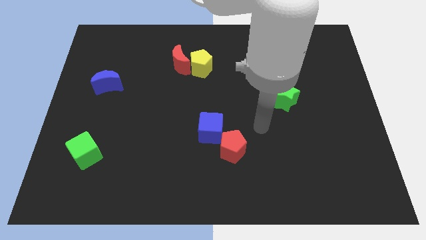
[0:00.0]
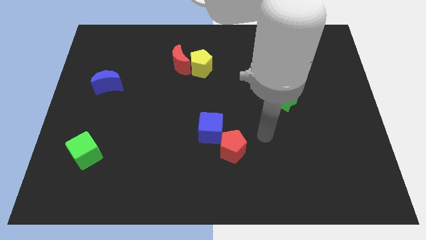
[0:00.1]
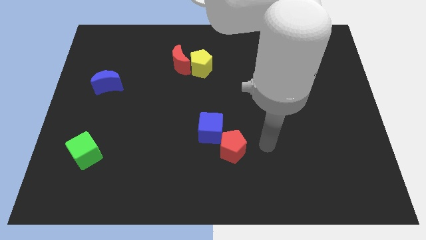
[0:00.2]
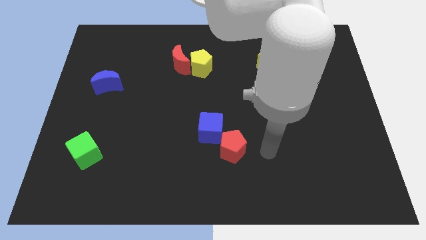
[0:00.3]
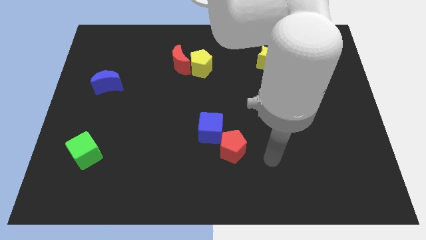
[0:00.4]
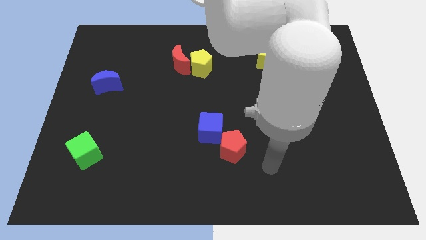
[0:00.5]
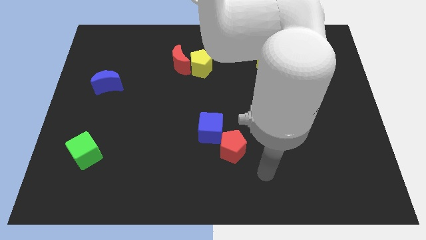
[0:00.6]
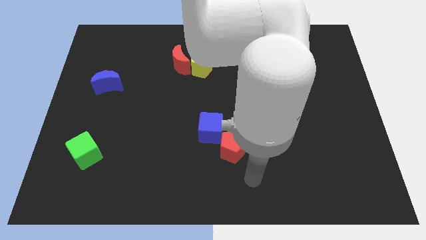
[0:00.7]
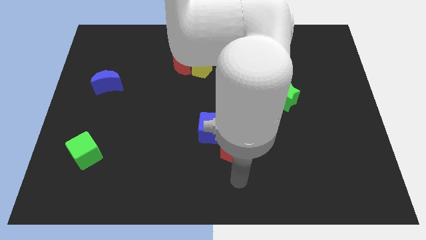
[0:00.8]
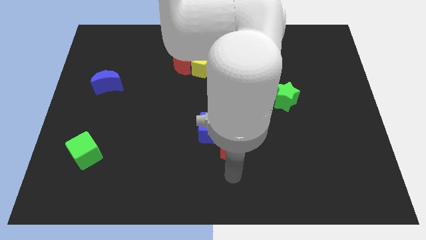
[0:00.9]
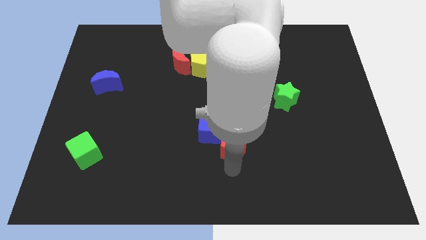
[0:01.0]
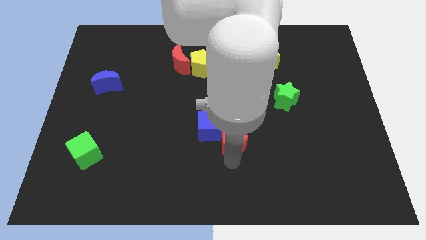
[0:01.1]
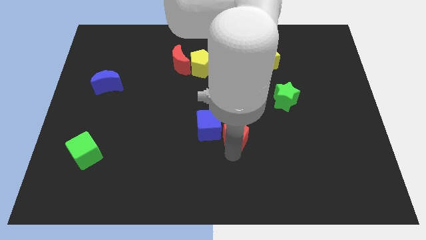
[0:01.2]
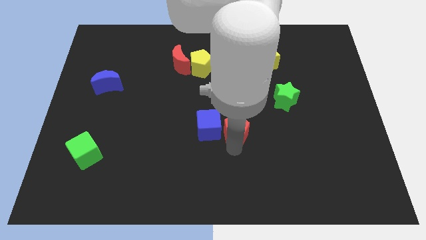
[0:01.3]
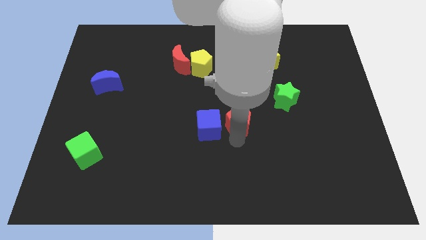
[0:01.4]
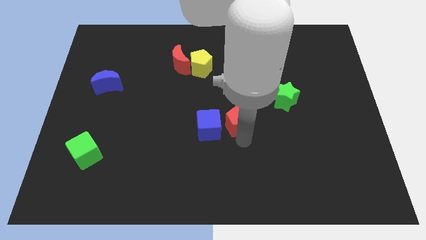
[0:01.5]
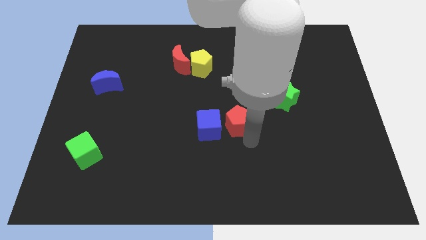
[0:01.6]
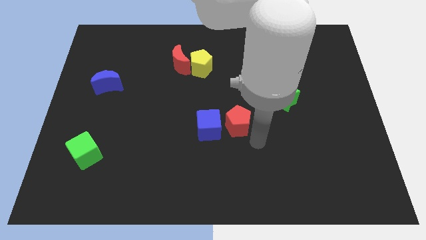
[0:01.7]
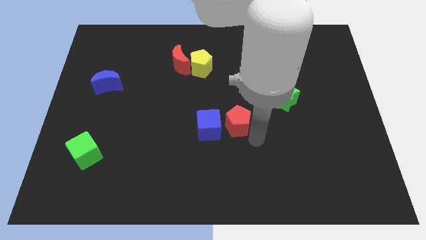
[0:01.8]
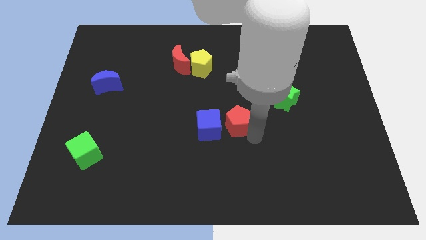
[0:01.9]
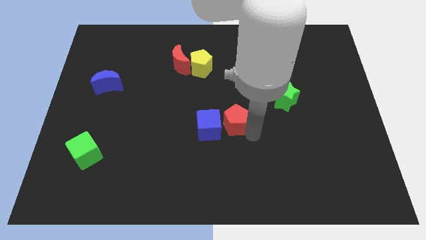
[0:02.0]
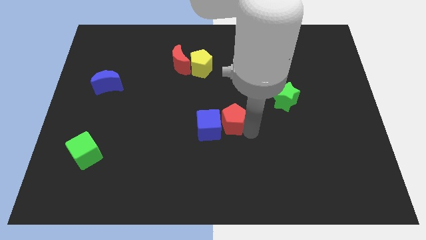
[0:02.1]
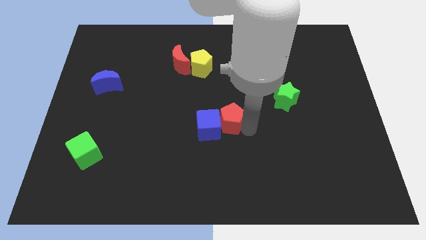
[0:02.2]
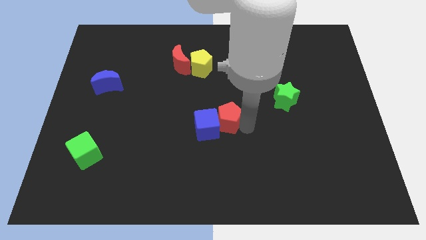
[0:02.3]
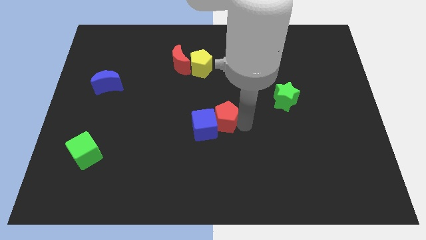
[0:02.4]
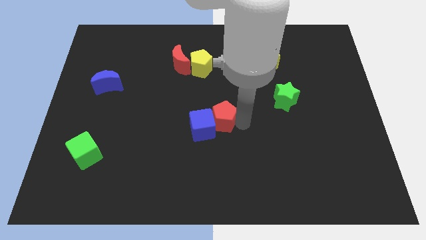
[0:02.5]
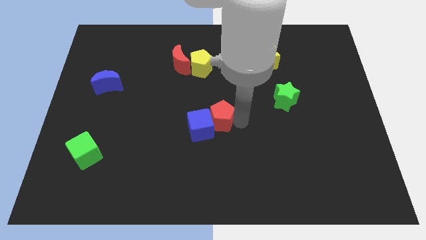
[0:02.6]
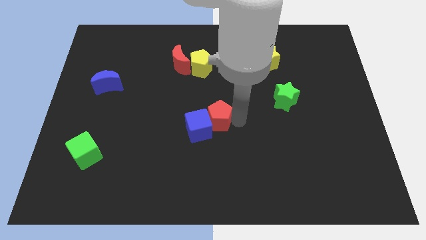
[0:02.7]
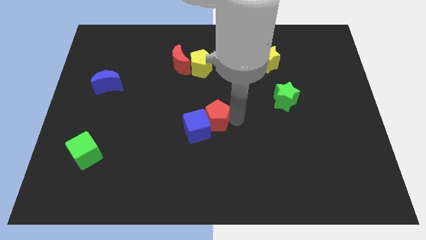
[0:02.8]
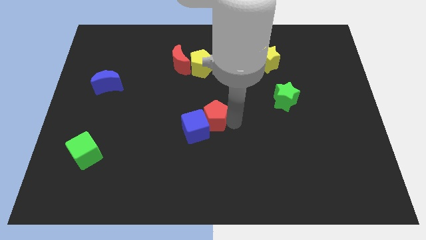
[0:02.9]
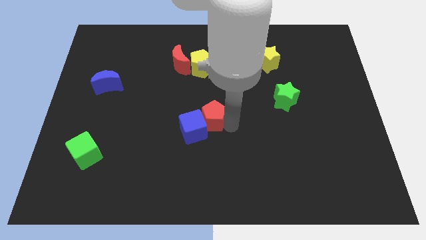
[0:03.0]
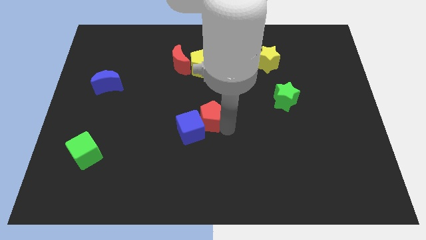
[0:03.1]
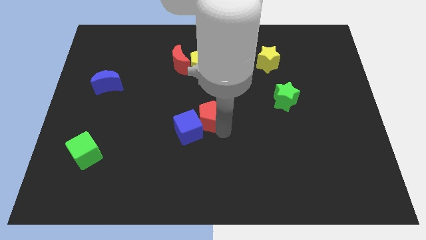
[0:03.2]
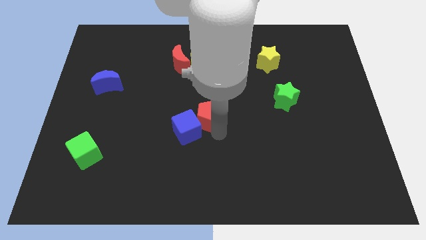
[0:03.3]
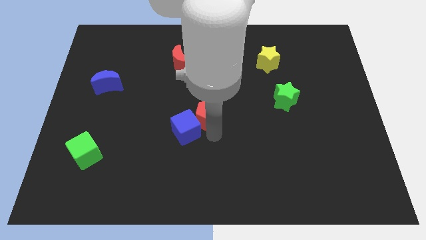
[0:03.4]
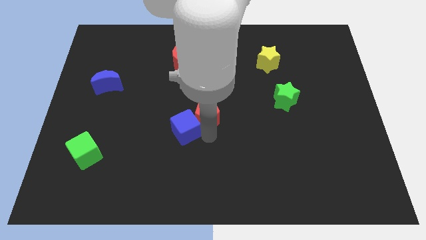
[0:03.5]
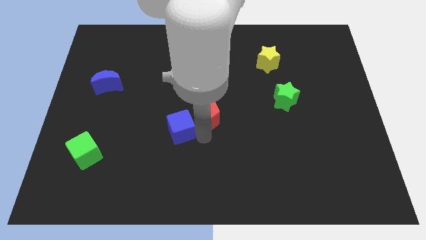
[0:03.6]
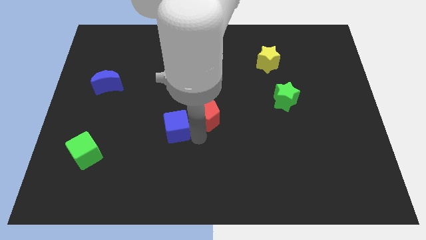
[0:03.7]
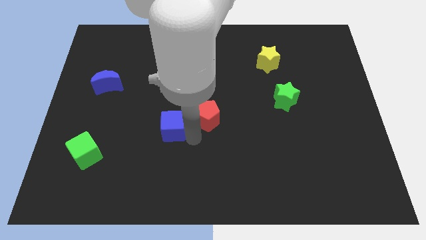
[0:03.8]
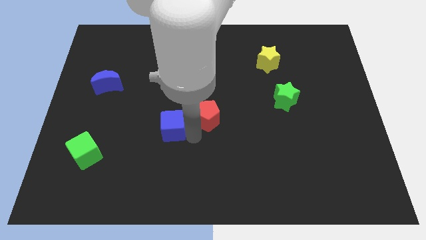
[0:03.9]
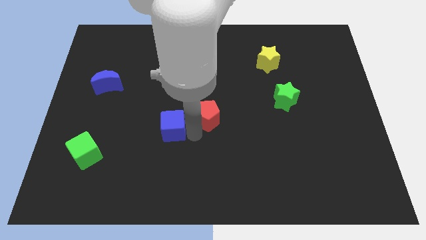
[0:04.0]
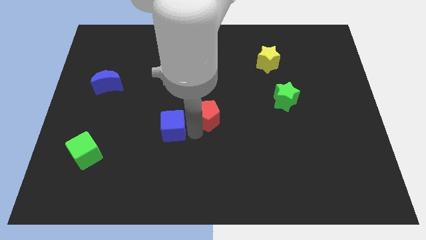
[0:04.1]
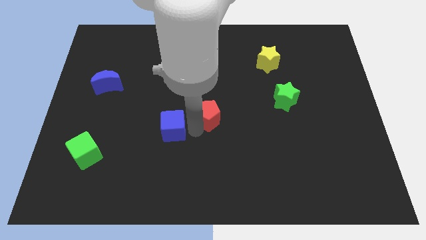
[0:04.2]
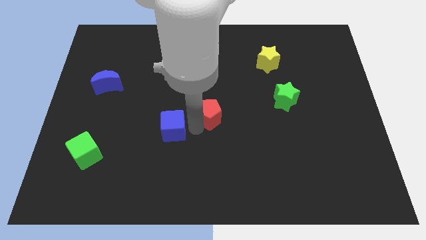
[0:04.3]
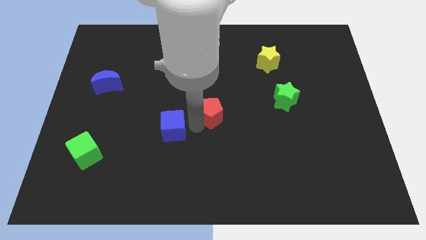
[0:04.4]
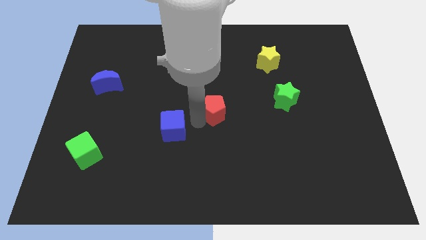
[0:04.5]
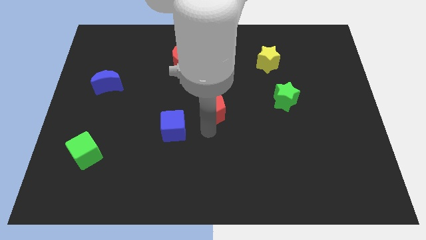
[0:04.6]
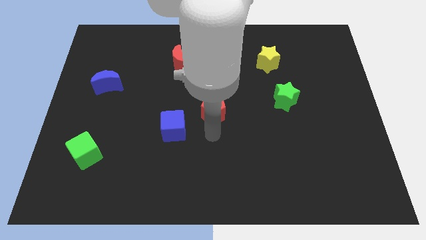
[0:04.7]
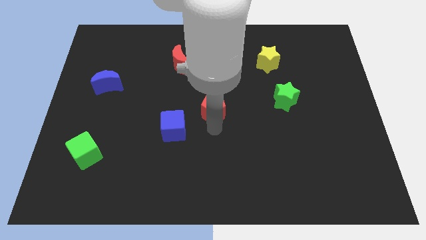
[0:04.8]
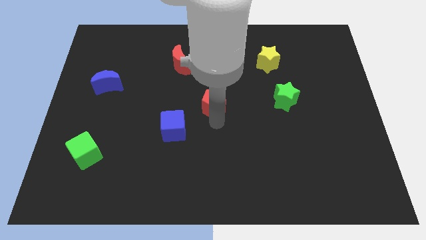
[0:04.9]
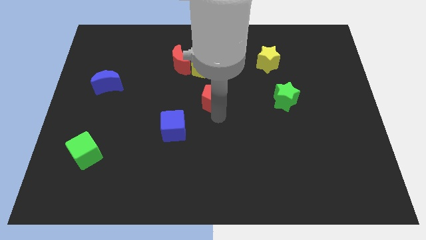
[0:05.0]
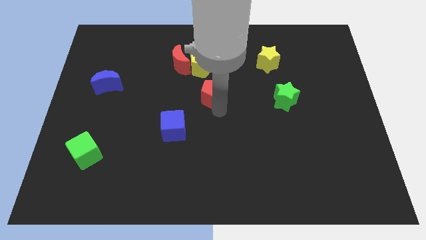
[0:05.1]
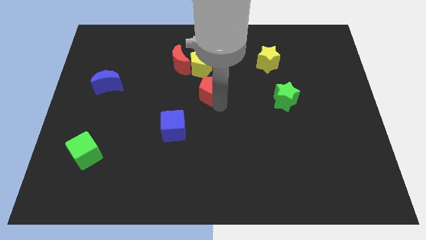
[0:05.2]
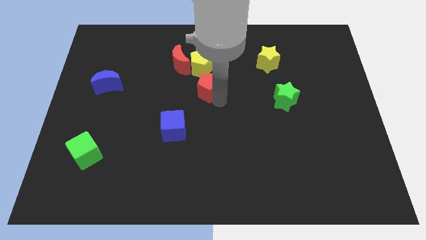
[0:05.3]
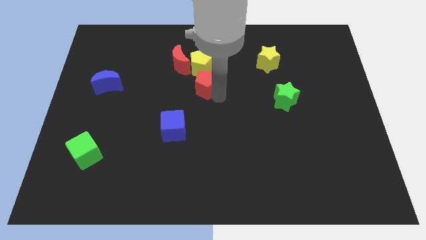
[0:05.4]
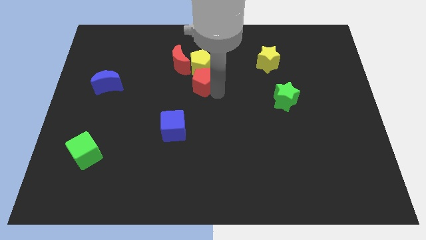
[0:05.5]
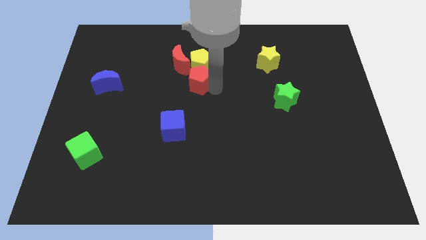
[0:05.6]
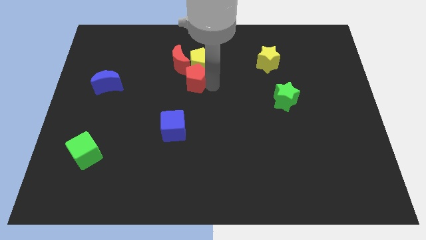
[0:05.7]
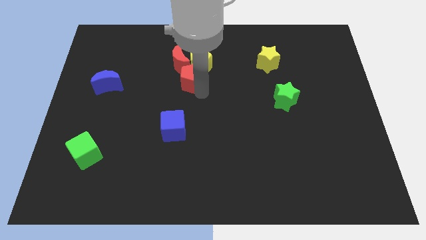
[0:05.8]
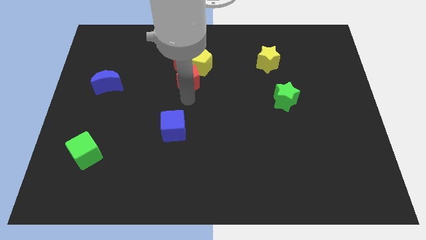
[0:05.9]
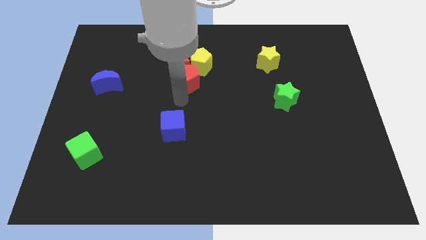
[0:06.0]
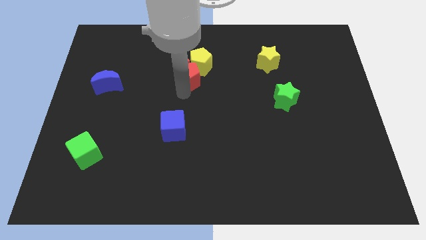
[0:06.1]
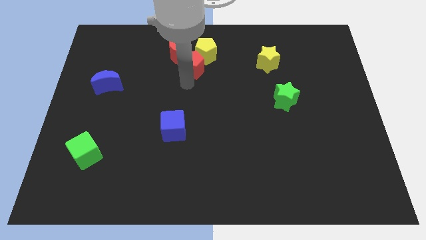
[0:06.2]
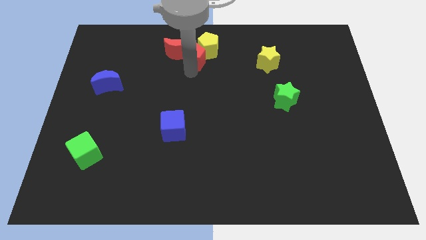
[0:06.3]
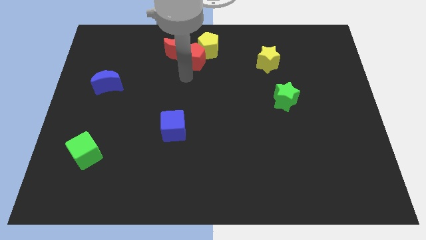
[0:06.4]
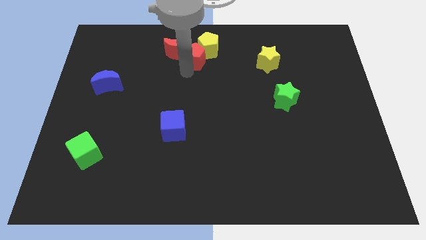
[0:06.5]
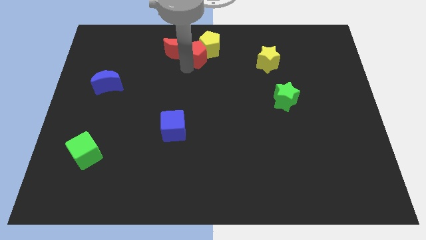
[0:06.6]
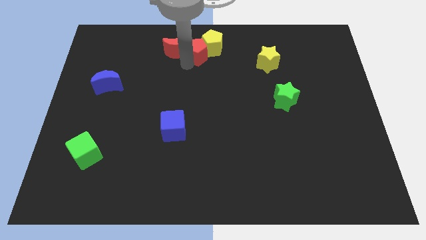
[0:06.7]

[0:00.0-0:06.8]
put the red pentagon to the towards your base
